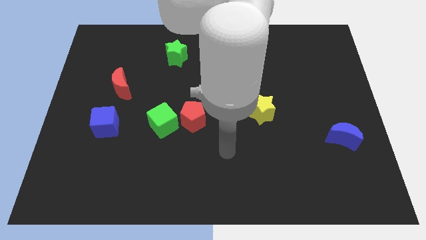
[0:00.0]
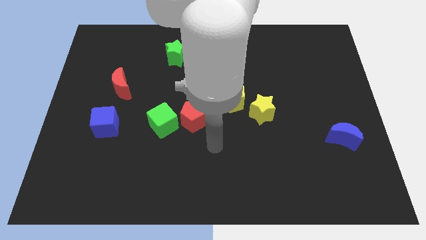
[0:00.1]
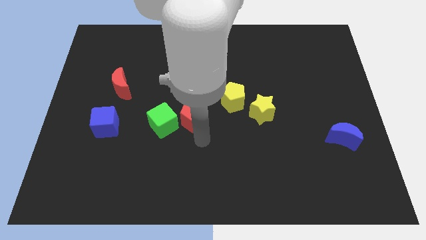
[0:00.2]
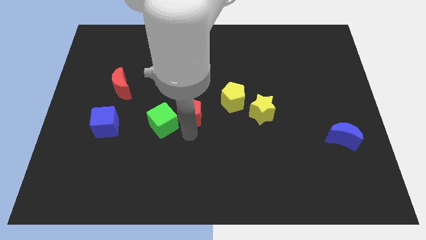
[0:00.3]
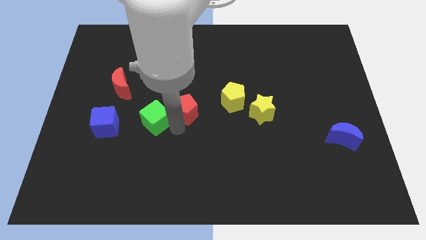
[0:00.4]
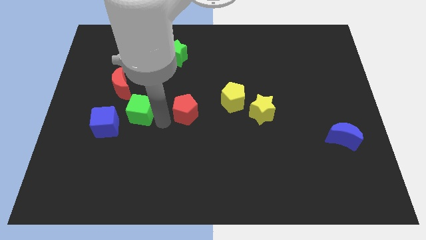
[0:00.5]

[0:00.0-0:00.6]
move the red pentagon away from the green cube

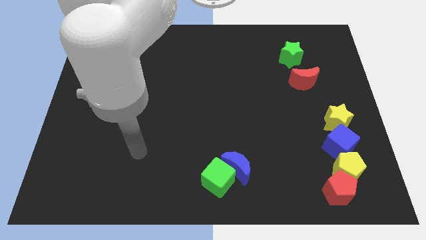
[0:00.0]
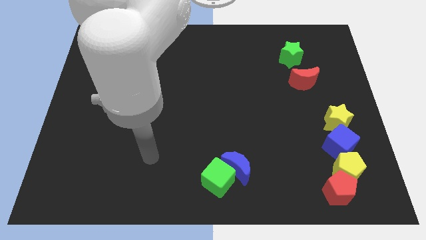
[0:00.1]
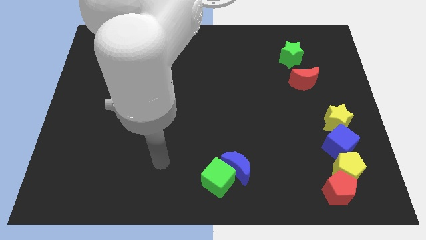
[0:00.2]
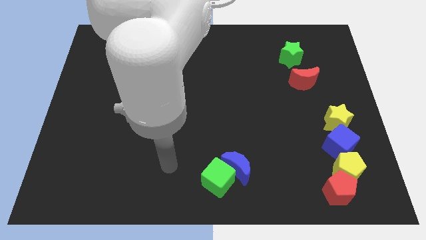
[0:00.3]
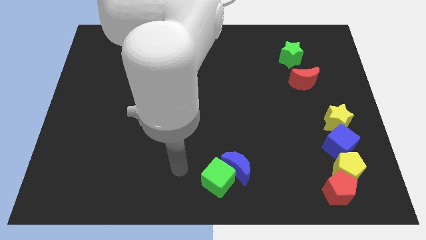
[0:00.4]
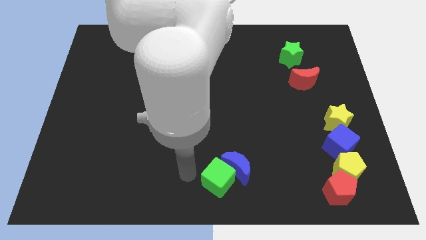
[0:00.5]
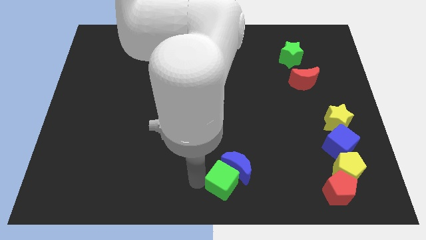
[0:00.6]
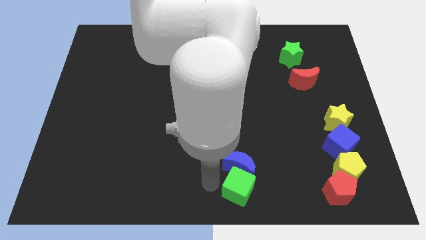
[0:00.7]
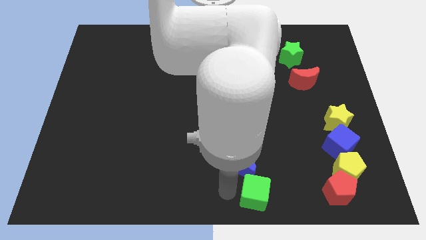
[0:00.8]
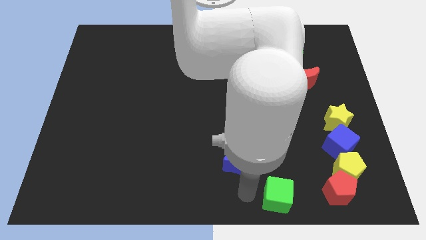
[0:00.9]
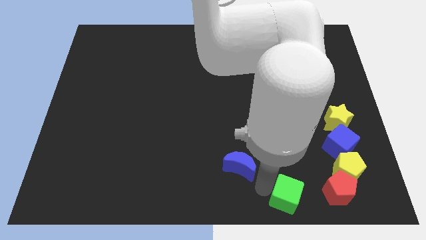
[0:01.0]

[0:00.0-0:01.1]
move the blue moon away from the green cube

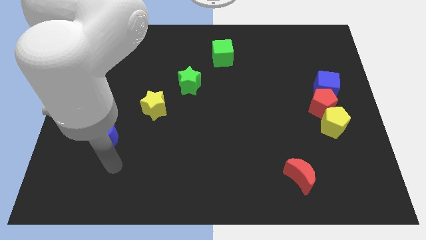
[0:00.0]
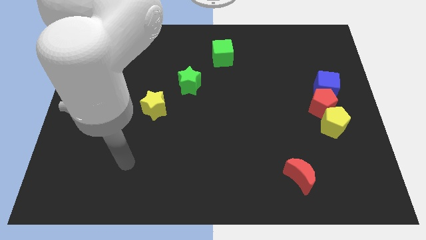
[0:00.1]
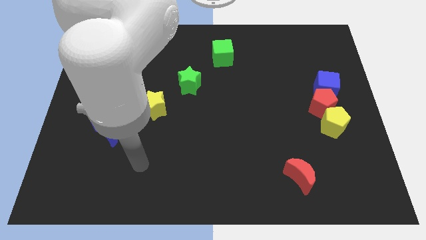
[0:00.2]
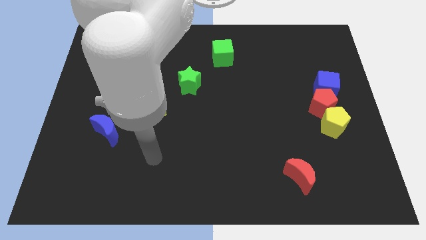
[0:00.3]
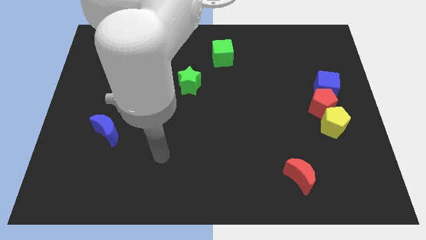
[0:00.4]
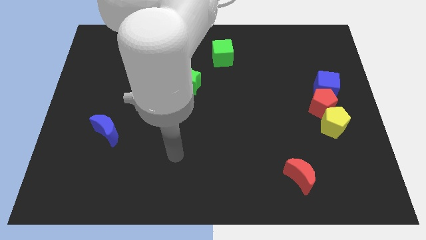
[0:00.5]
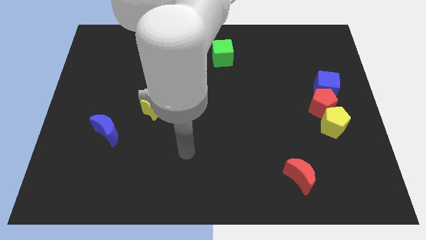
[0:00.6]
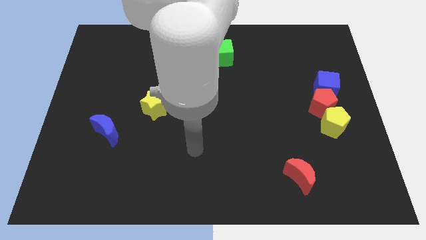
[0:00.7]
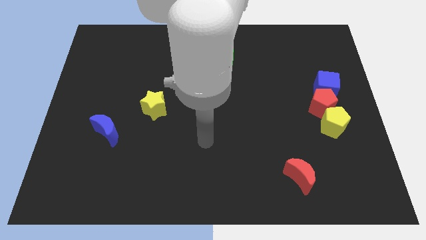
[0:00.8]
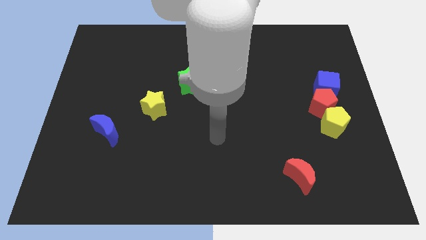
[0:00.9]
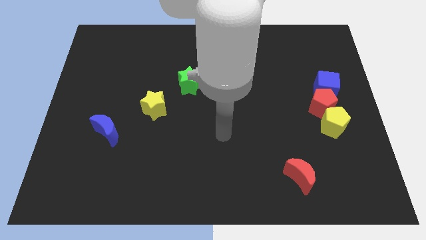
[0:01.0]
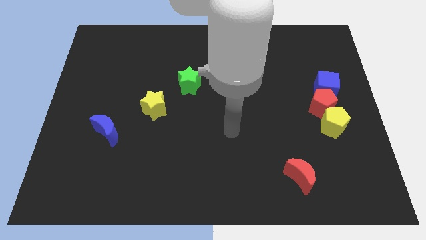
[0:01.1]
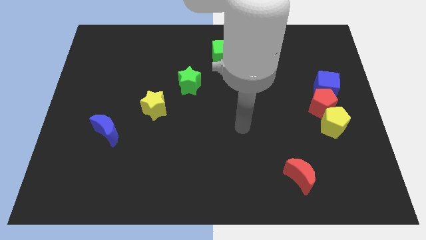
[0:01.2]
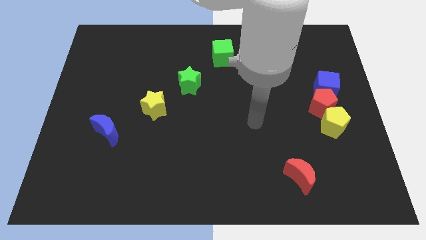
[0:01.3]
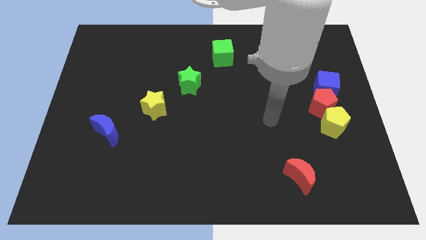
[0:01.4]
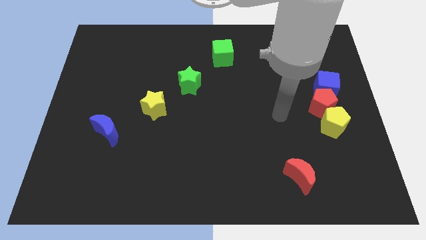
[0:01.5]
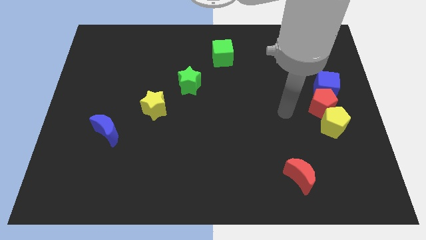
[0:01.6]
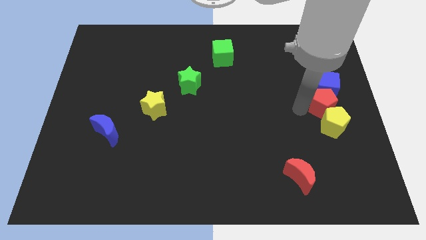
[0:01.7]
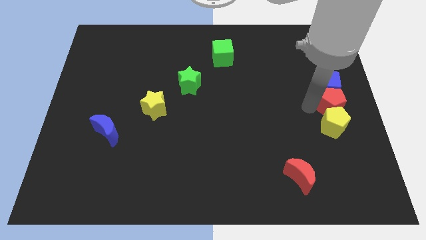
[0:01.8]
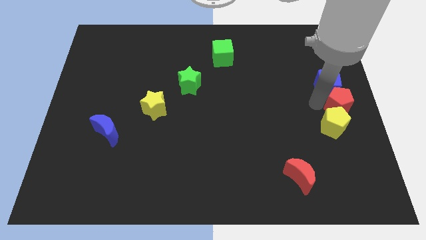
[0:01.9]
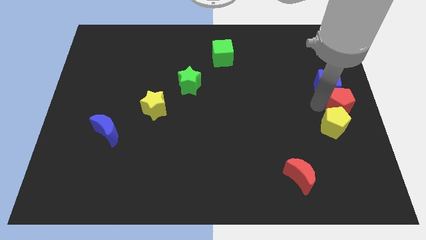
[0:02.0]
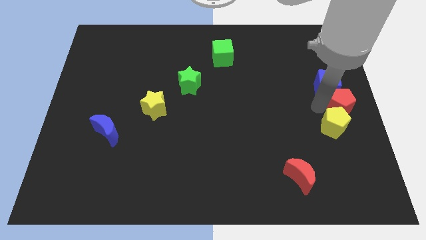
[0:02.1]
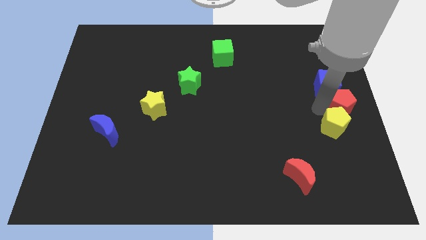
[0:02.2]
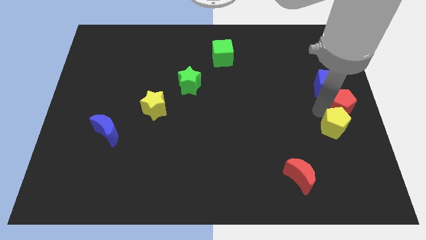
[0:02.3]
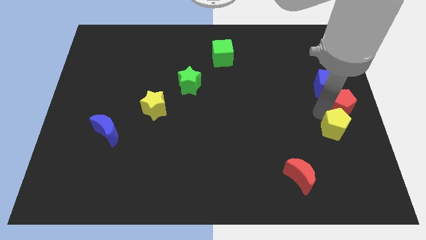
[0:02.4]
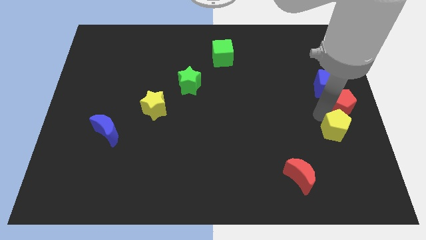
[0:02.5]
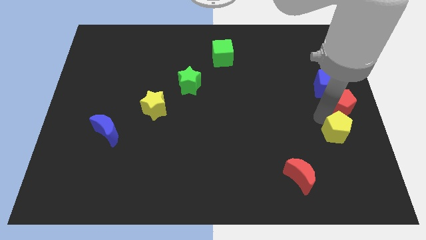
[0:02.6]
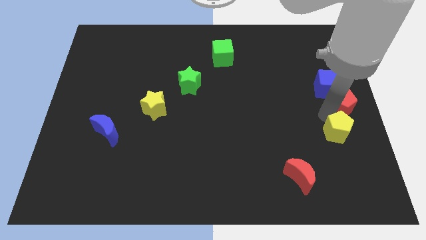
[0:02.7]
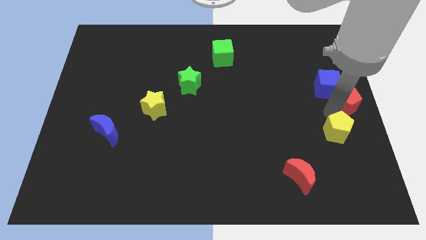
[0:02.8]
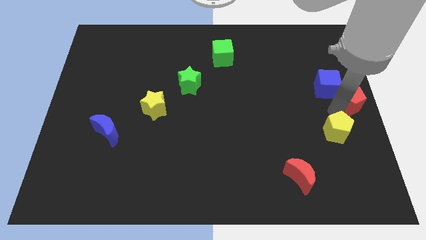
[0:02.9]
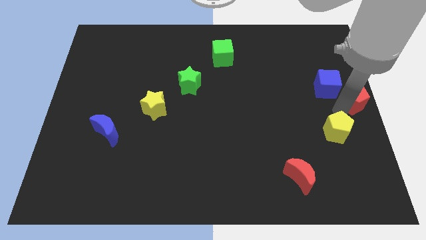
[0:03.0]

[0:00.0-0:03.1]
separate the yellow pentagon from the red pentagon

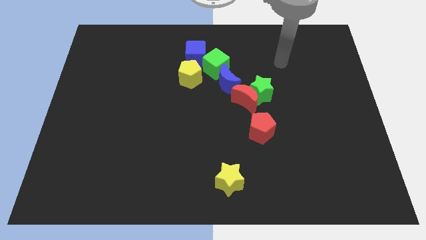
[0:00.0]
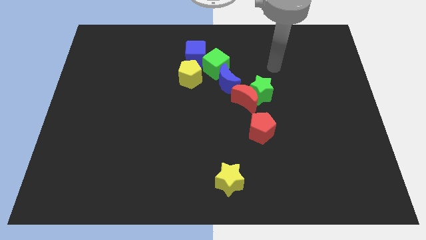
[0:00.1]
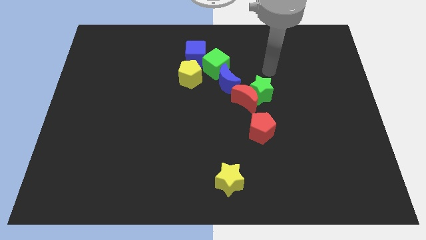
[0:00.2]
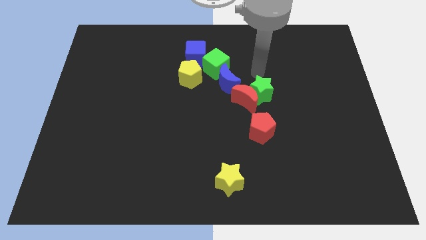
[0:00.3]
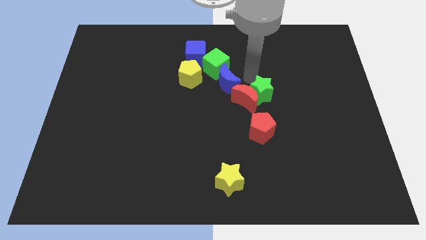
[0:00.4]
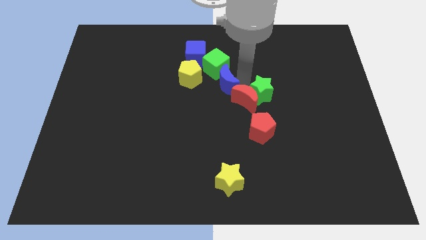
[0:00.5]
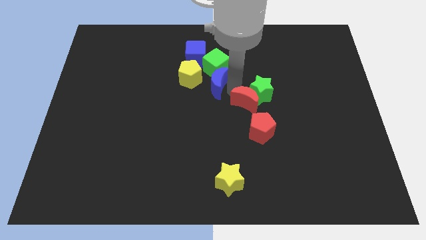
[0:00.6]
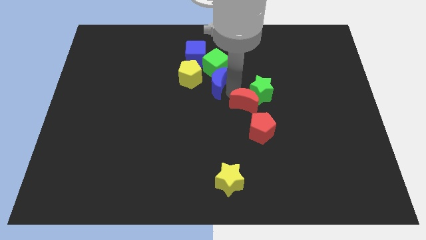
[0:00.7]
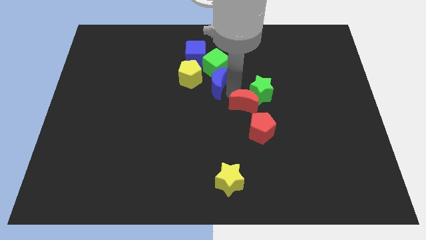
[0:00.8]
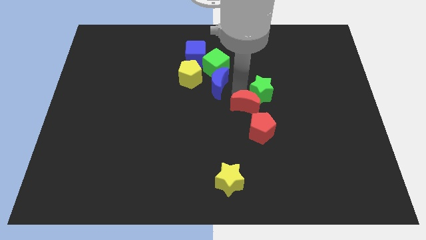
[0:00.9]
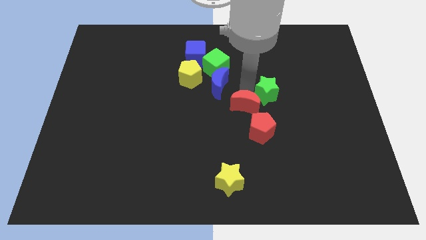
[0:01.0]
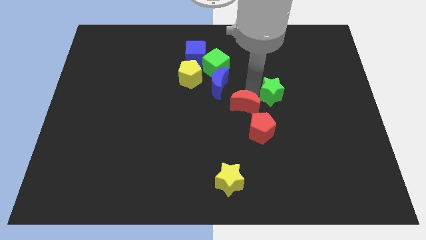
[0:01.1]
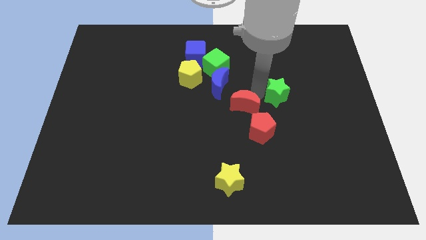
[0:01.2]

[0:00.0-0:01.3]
separate the green star from the red moon and blue moon

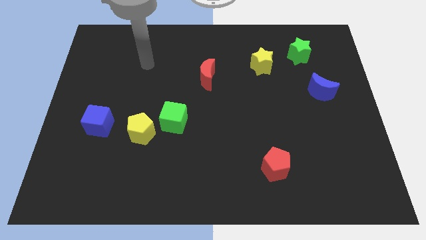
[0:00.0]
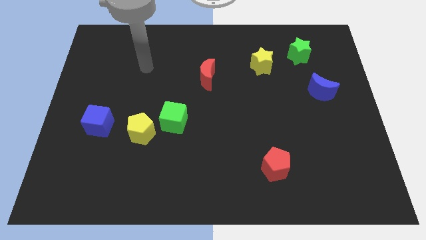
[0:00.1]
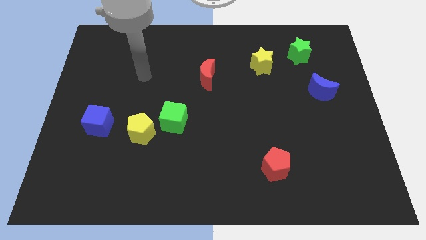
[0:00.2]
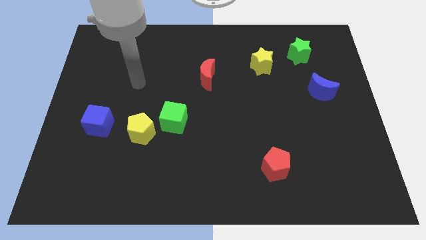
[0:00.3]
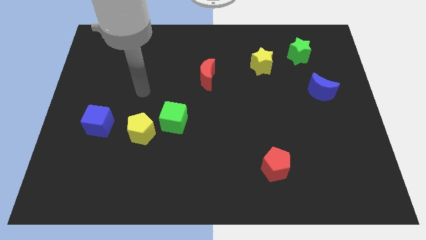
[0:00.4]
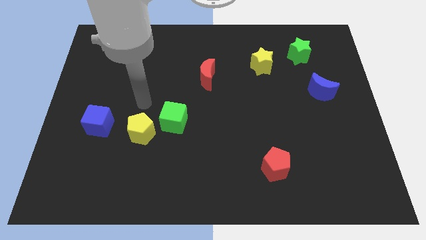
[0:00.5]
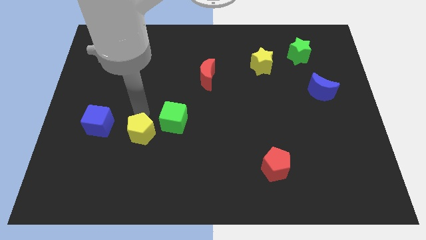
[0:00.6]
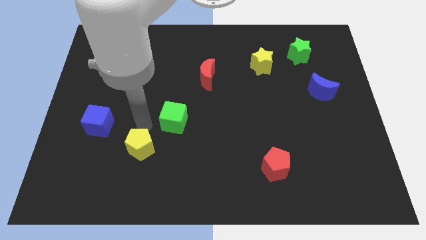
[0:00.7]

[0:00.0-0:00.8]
separate the green cube from the yellow pentagon

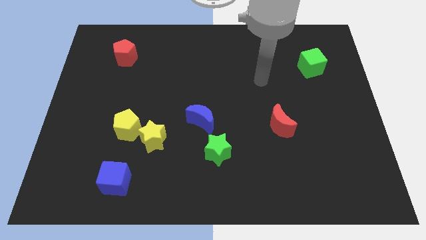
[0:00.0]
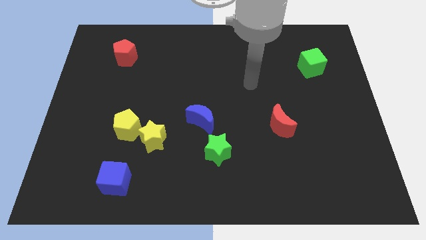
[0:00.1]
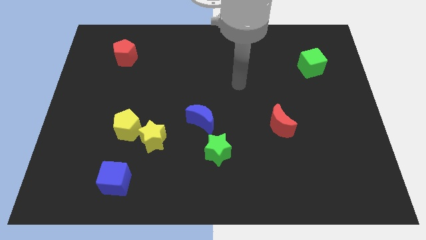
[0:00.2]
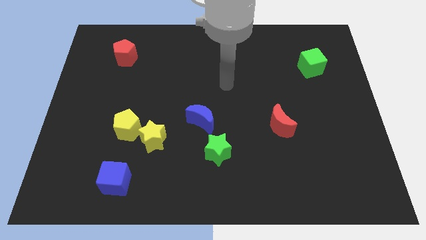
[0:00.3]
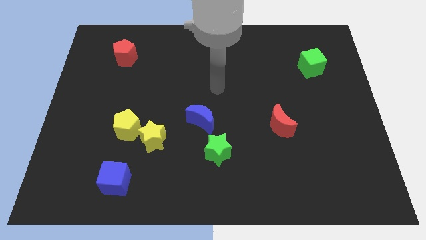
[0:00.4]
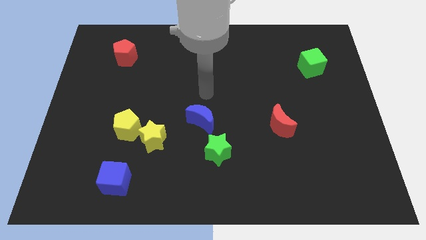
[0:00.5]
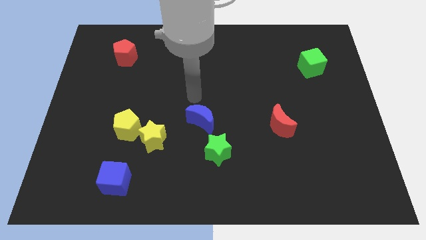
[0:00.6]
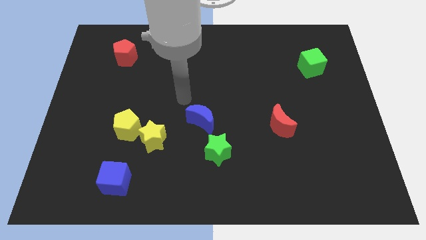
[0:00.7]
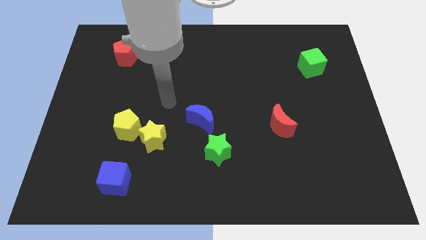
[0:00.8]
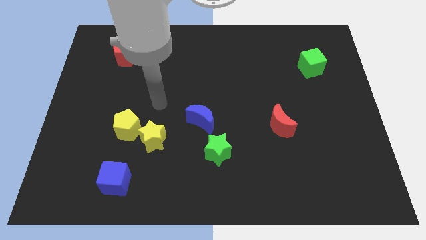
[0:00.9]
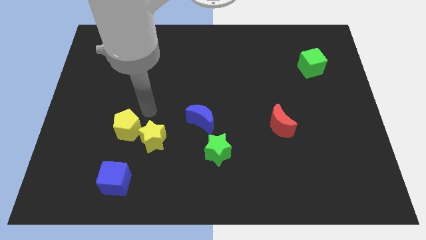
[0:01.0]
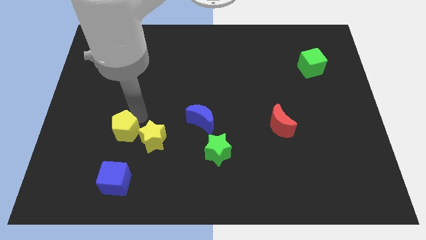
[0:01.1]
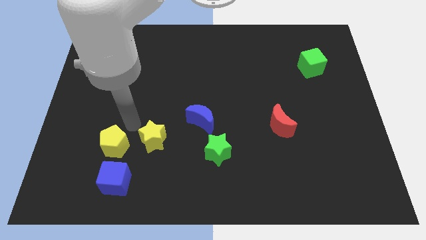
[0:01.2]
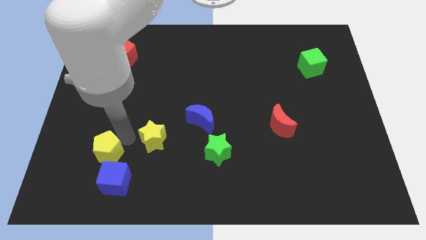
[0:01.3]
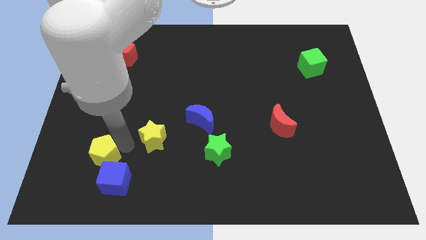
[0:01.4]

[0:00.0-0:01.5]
move the yellow star away from the yellow pentagon

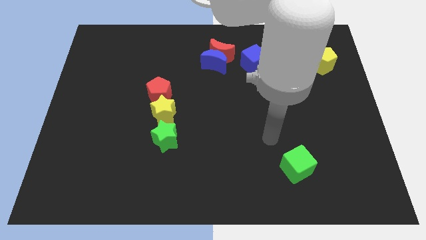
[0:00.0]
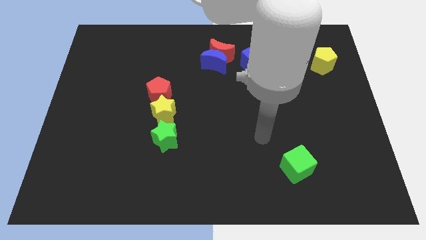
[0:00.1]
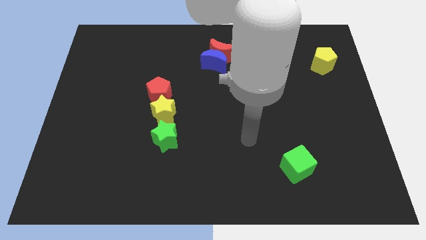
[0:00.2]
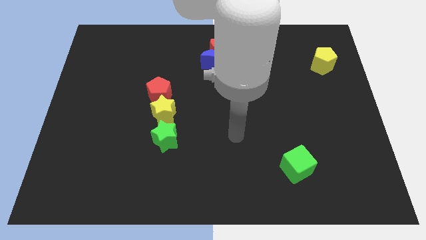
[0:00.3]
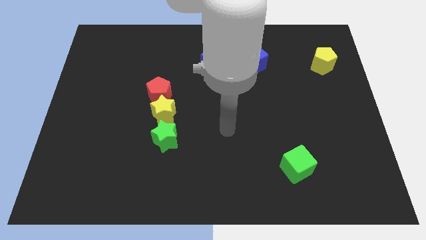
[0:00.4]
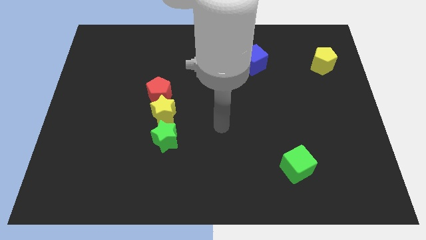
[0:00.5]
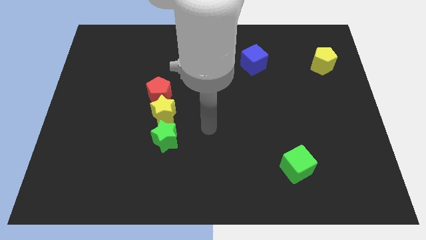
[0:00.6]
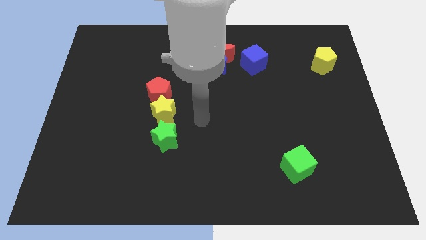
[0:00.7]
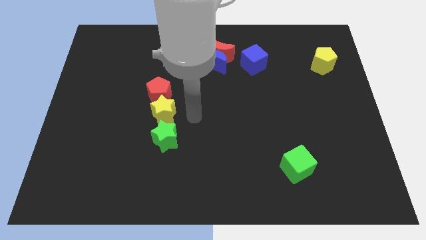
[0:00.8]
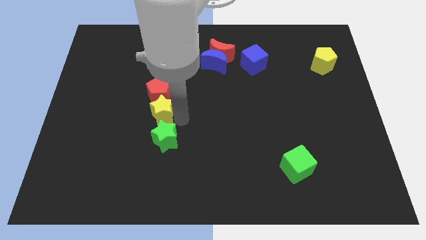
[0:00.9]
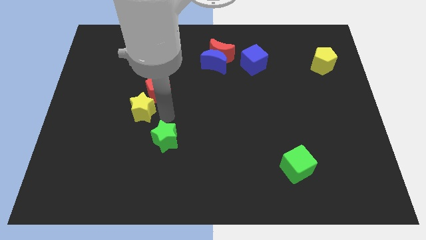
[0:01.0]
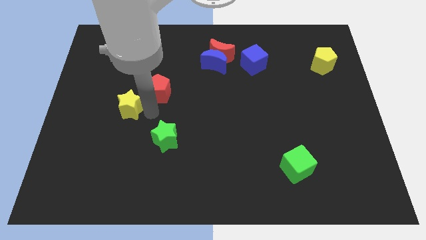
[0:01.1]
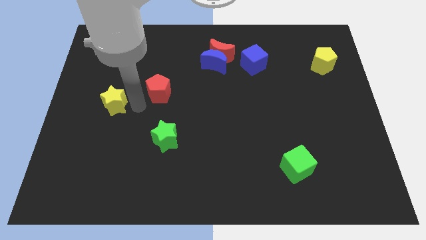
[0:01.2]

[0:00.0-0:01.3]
move the red pentagon away from the yellow star
